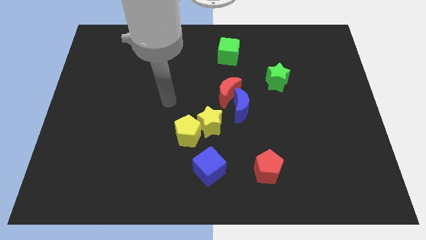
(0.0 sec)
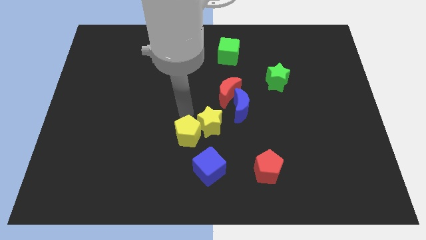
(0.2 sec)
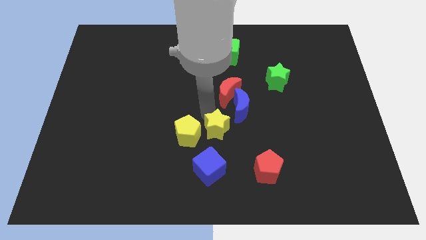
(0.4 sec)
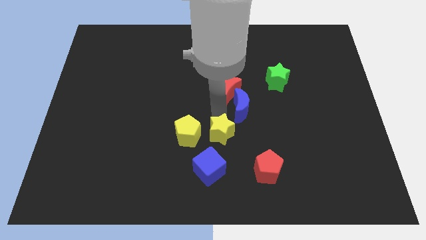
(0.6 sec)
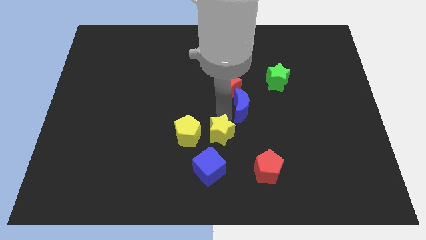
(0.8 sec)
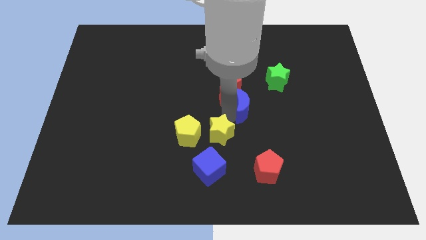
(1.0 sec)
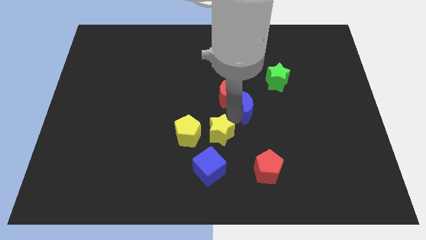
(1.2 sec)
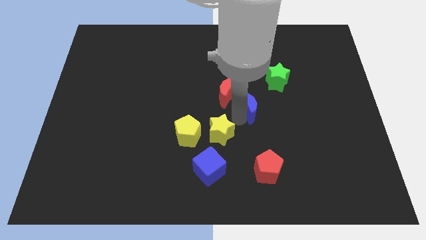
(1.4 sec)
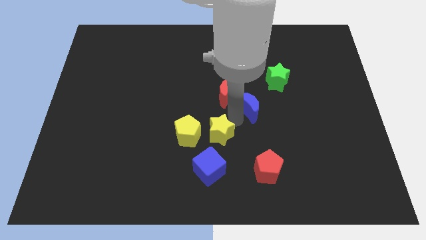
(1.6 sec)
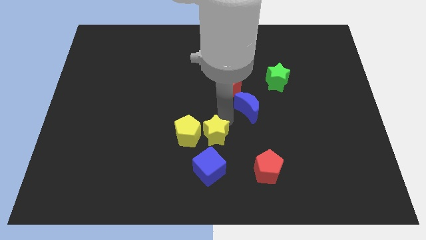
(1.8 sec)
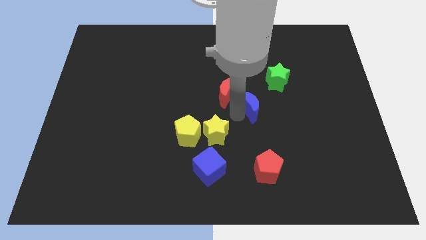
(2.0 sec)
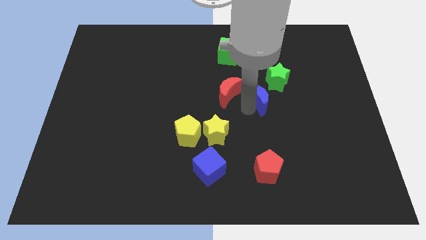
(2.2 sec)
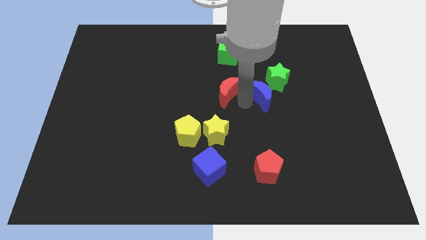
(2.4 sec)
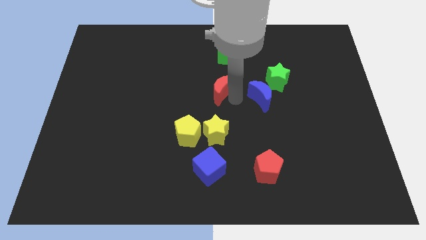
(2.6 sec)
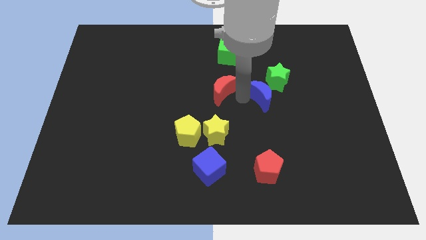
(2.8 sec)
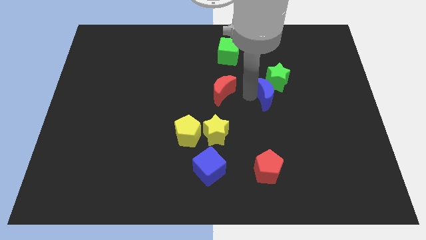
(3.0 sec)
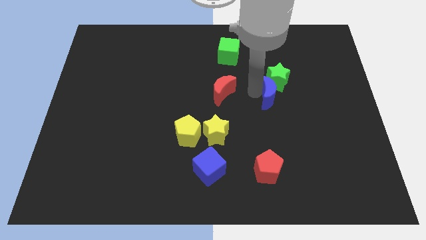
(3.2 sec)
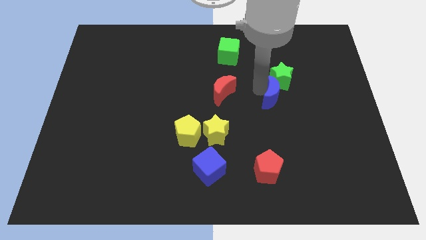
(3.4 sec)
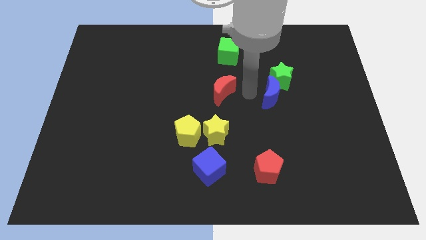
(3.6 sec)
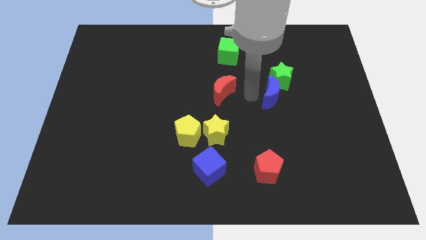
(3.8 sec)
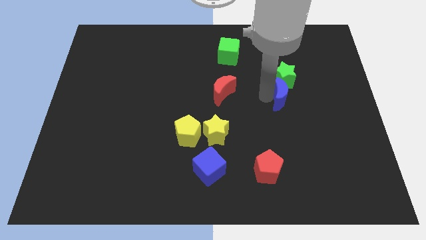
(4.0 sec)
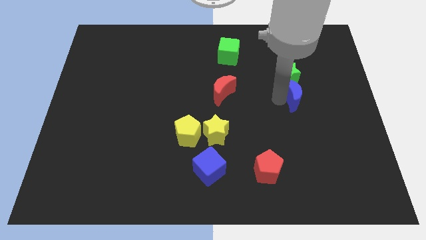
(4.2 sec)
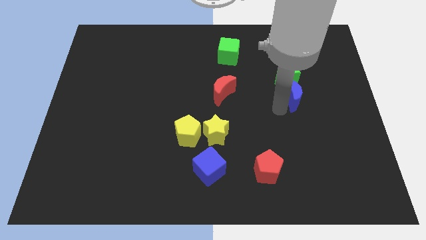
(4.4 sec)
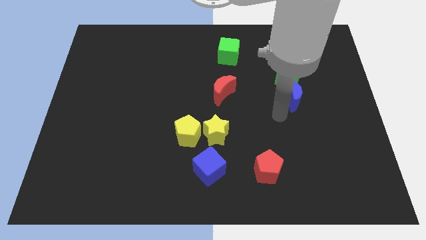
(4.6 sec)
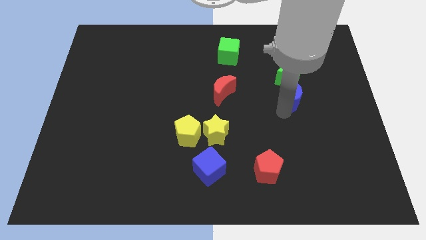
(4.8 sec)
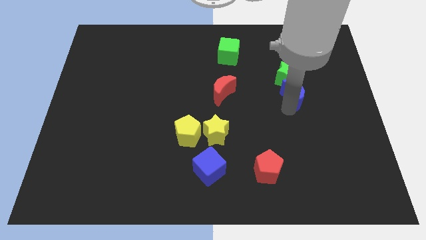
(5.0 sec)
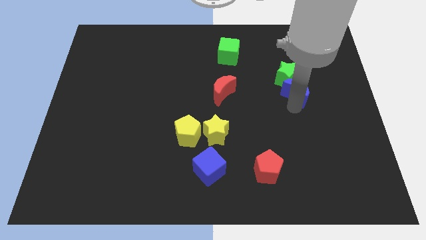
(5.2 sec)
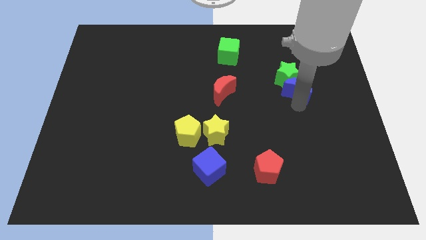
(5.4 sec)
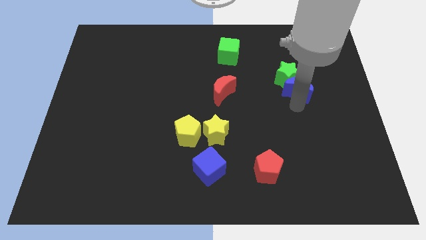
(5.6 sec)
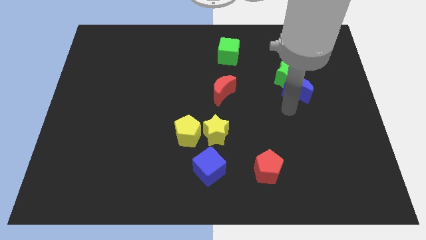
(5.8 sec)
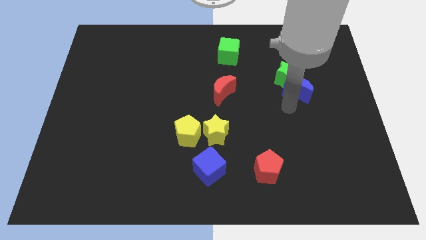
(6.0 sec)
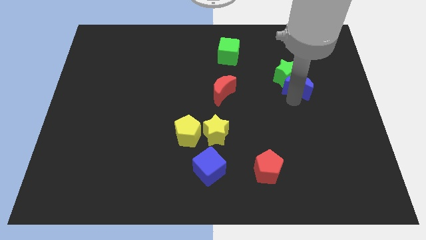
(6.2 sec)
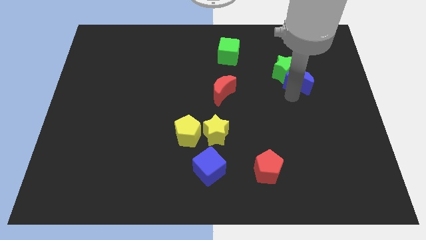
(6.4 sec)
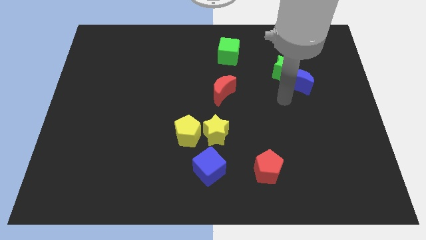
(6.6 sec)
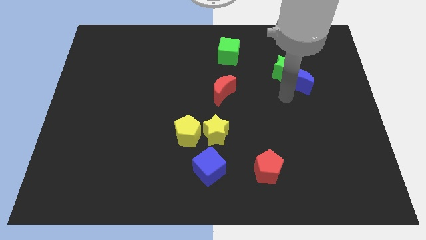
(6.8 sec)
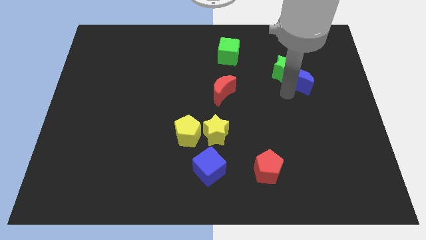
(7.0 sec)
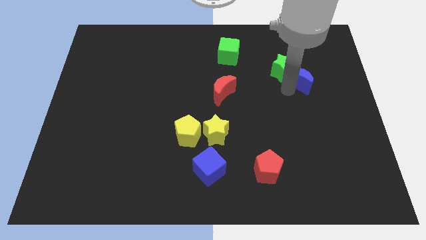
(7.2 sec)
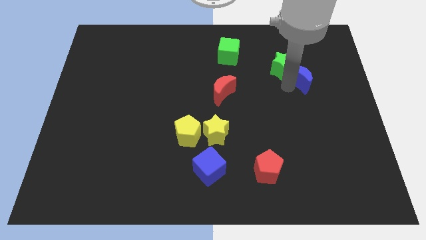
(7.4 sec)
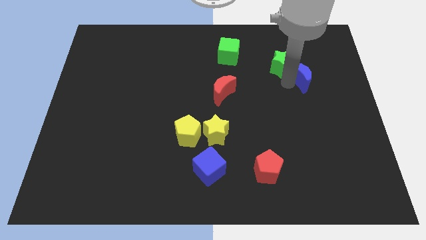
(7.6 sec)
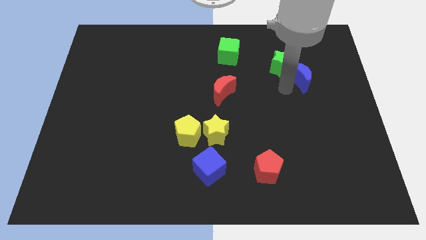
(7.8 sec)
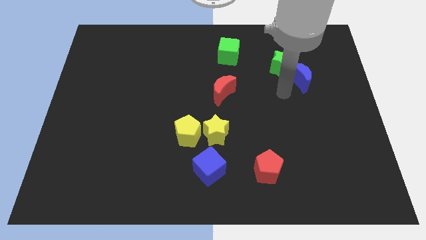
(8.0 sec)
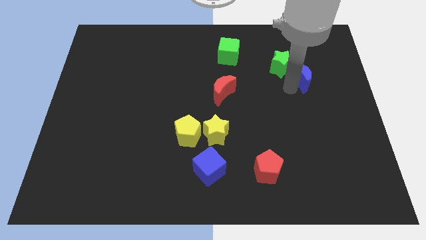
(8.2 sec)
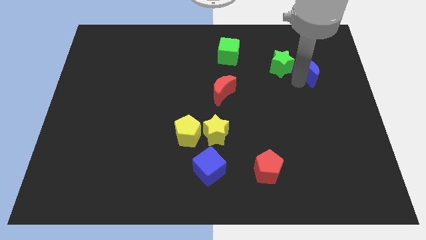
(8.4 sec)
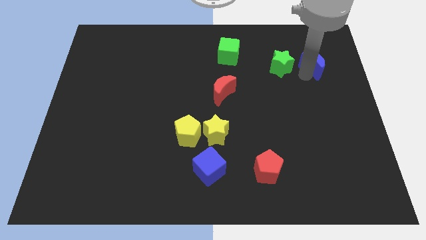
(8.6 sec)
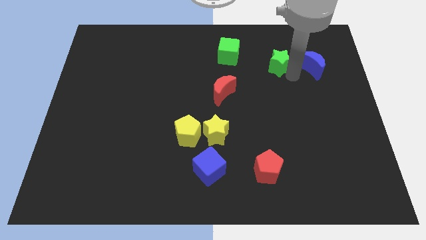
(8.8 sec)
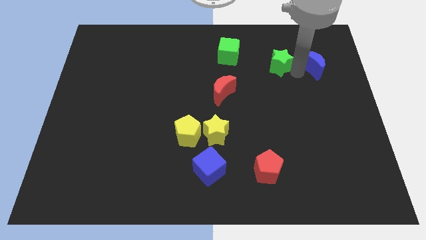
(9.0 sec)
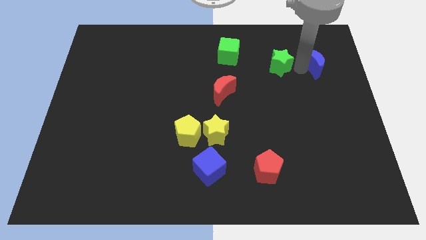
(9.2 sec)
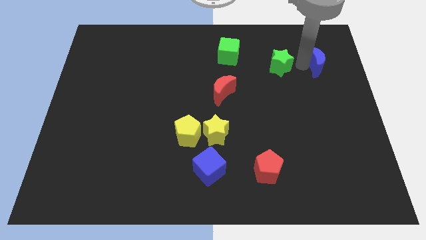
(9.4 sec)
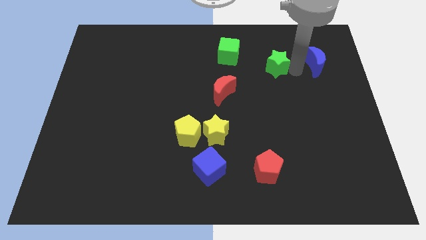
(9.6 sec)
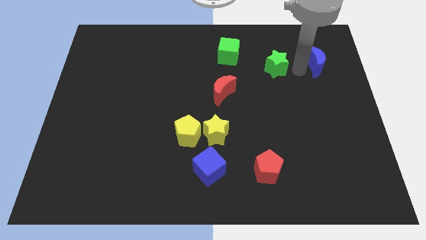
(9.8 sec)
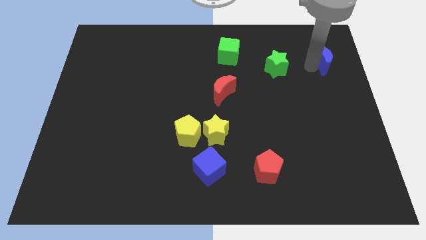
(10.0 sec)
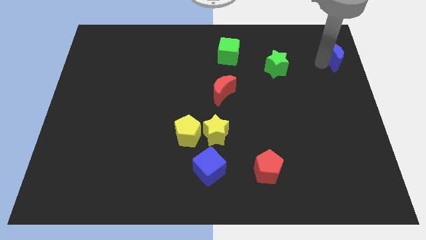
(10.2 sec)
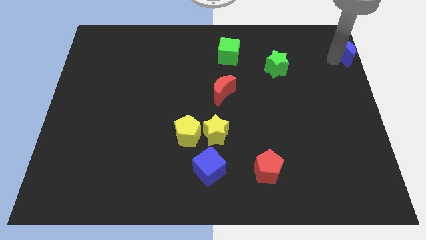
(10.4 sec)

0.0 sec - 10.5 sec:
slide the blue moon to the top right of the board

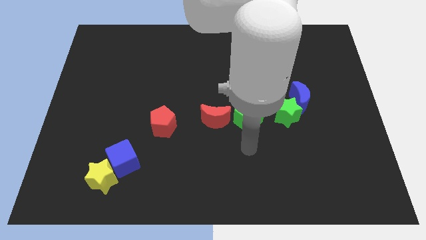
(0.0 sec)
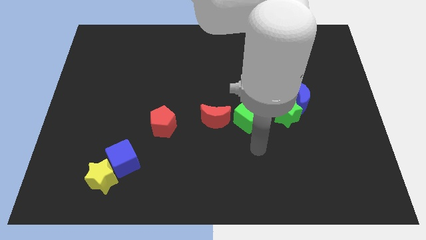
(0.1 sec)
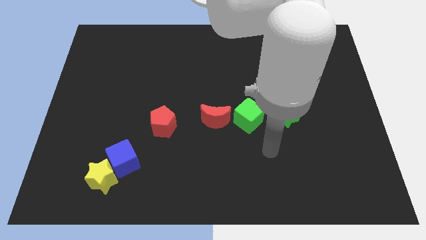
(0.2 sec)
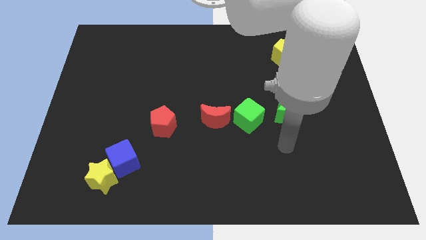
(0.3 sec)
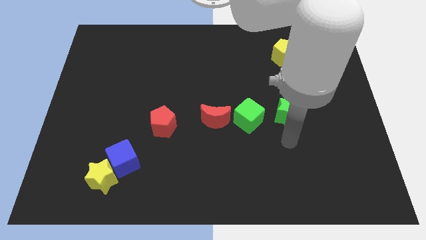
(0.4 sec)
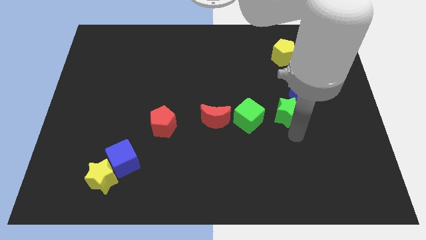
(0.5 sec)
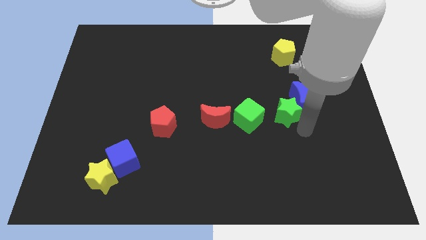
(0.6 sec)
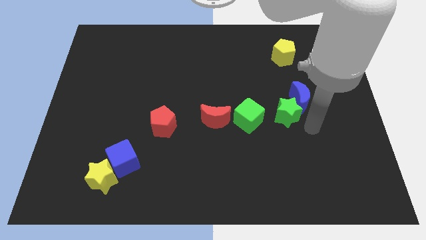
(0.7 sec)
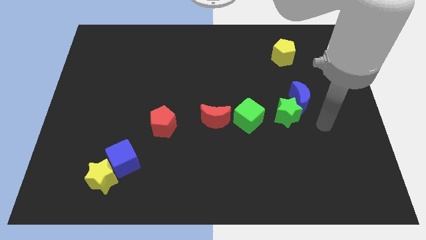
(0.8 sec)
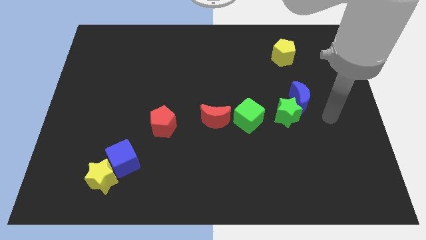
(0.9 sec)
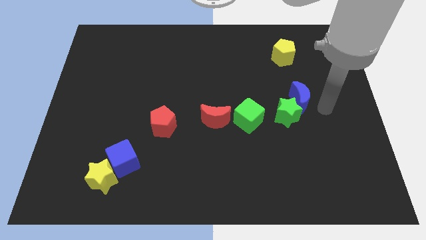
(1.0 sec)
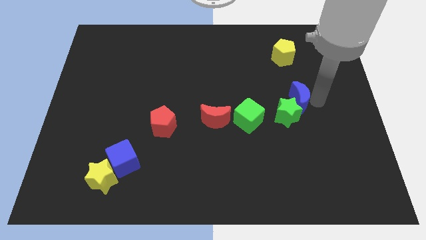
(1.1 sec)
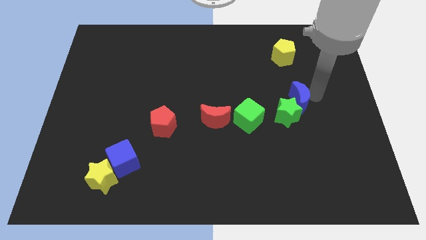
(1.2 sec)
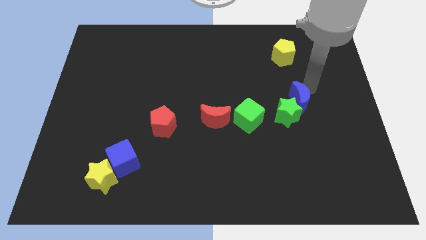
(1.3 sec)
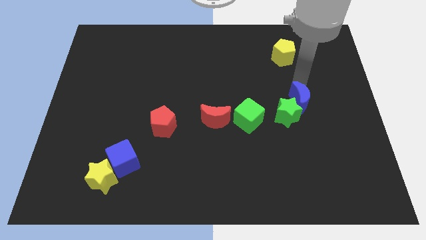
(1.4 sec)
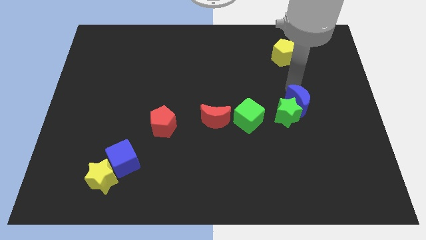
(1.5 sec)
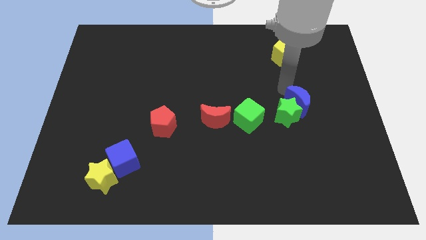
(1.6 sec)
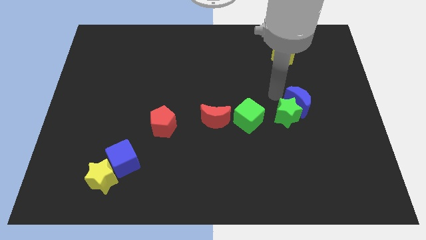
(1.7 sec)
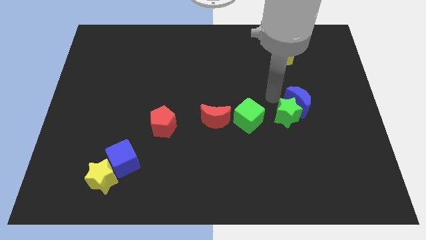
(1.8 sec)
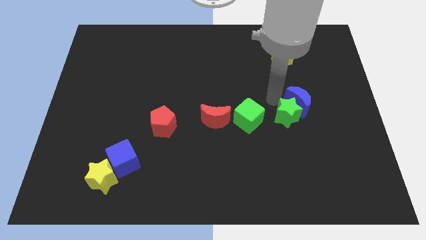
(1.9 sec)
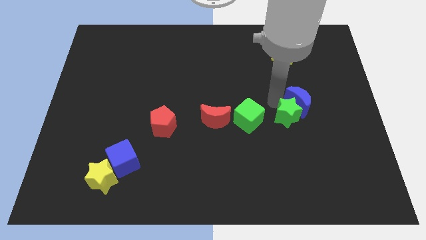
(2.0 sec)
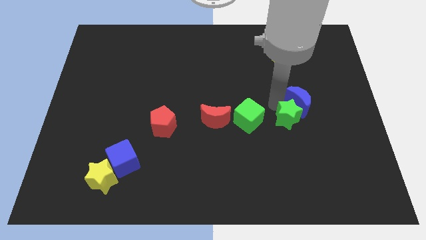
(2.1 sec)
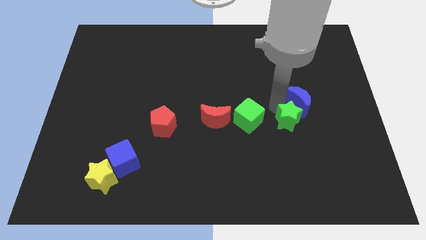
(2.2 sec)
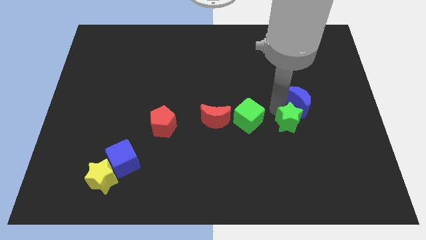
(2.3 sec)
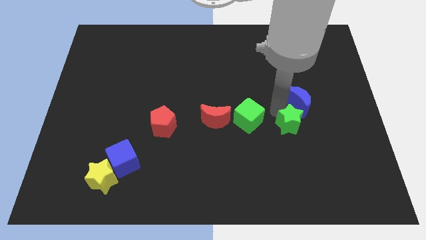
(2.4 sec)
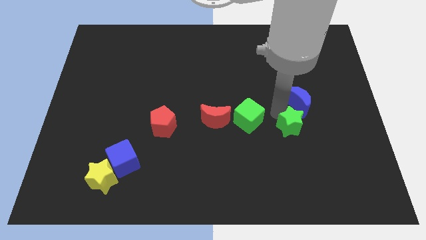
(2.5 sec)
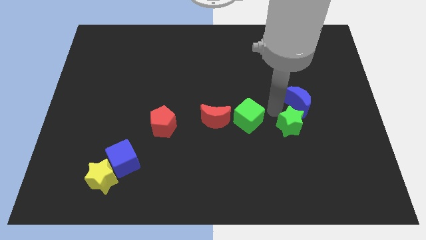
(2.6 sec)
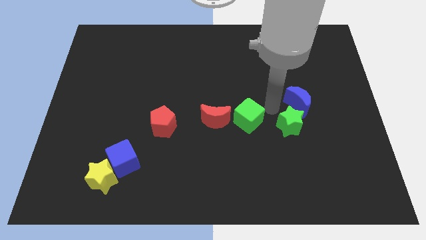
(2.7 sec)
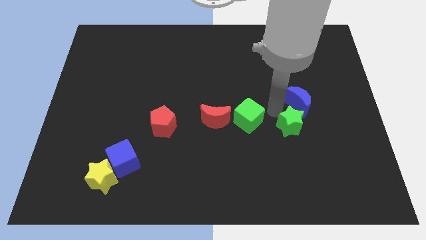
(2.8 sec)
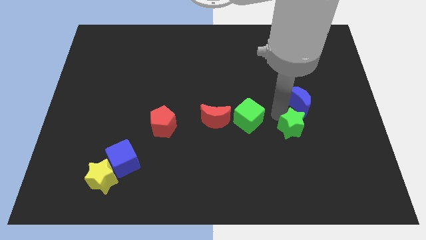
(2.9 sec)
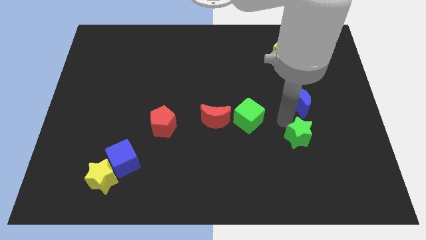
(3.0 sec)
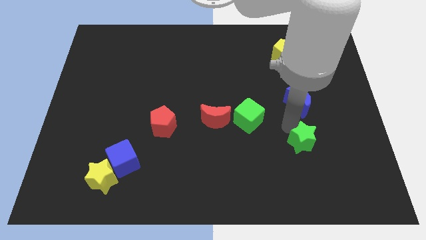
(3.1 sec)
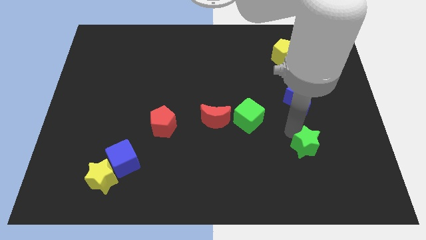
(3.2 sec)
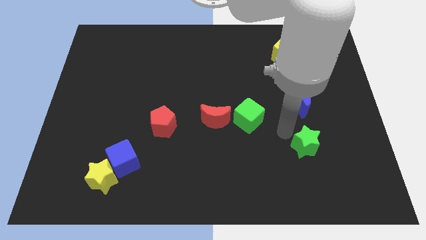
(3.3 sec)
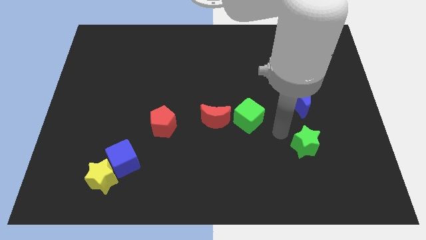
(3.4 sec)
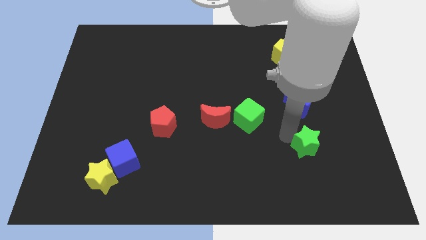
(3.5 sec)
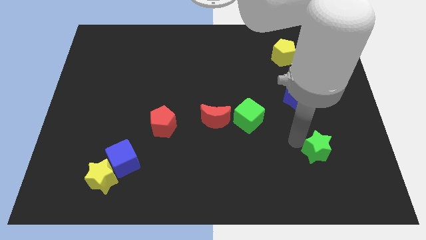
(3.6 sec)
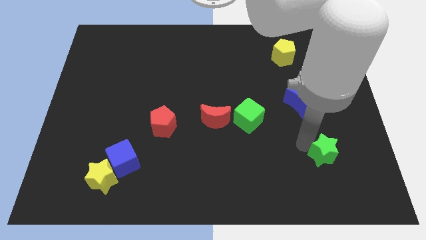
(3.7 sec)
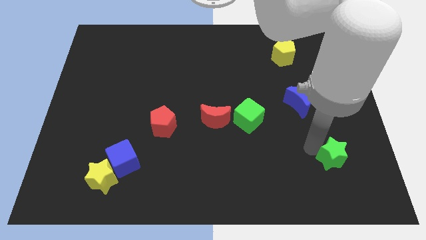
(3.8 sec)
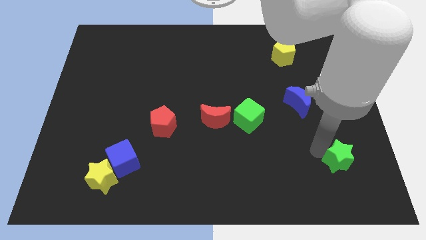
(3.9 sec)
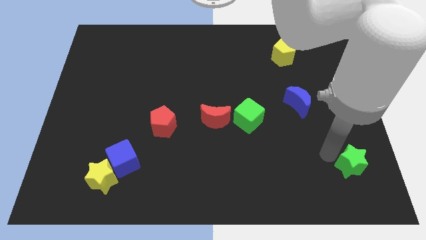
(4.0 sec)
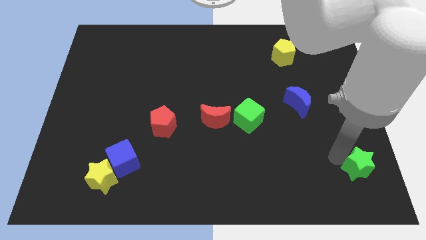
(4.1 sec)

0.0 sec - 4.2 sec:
move the green star to the lower right corner
